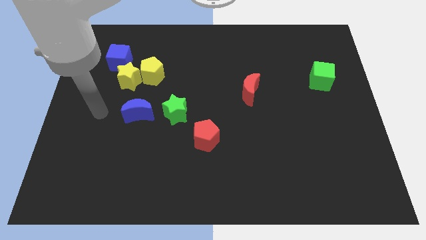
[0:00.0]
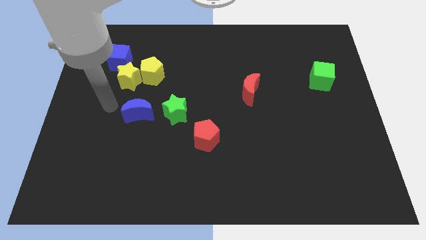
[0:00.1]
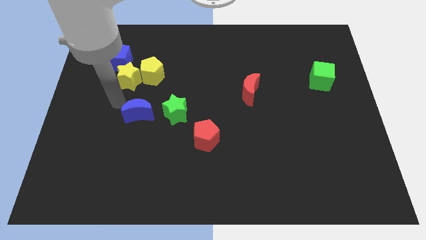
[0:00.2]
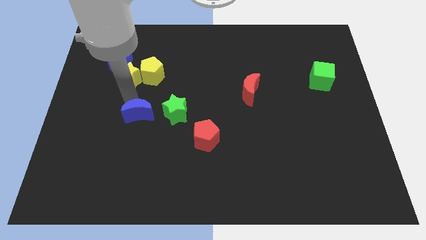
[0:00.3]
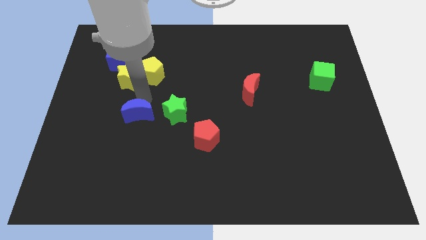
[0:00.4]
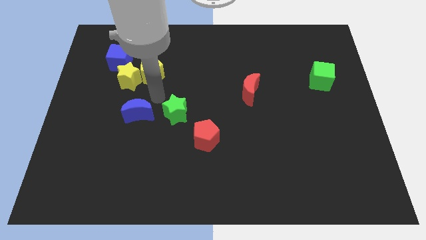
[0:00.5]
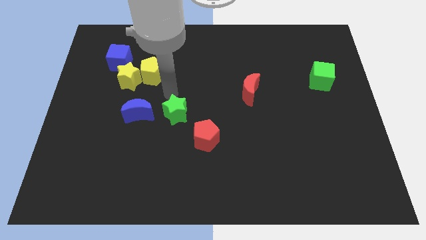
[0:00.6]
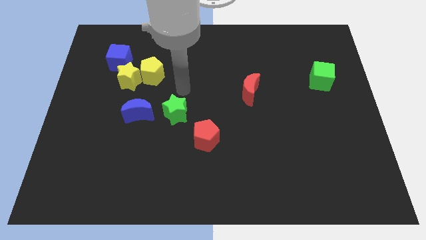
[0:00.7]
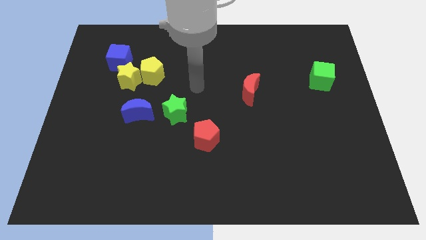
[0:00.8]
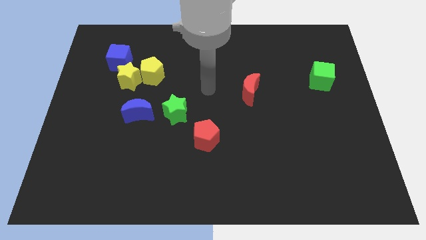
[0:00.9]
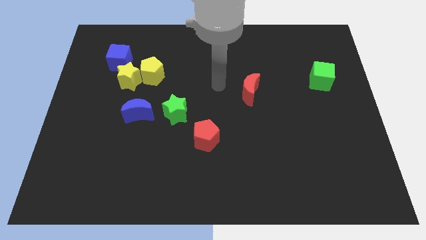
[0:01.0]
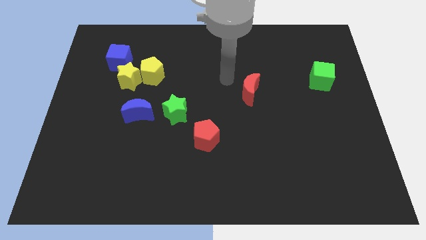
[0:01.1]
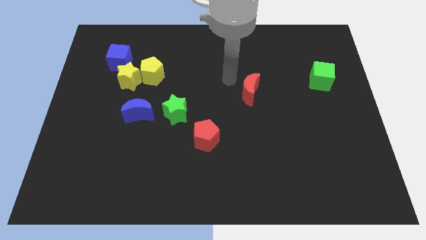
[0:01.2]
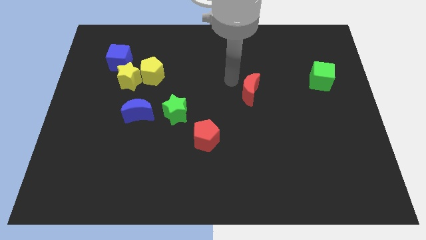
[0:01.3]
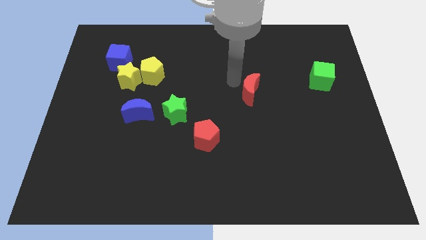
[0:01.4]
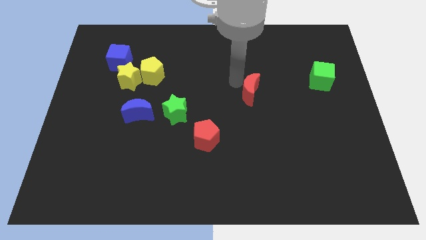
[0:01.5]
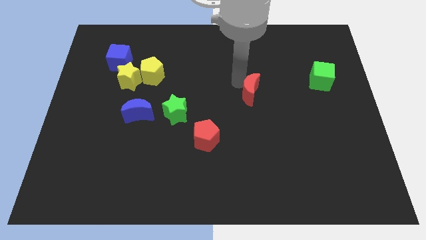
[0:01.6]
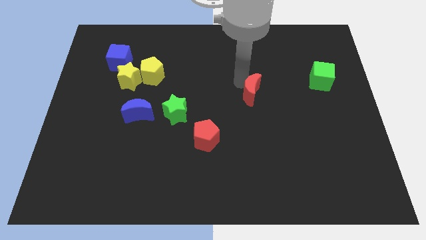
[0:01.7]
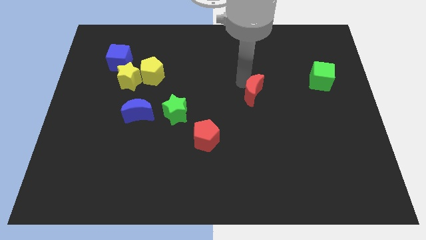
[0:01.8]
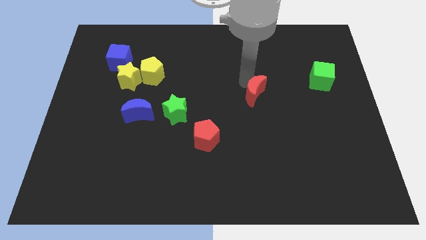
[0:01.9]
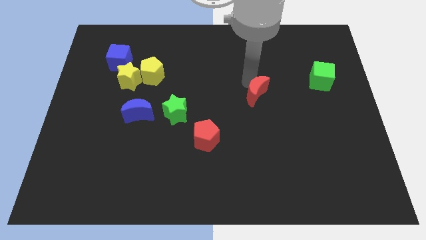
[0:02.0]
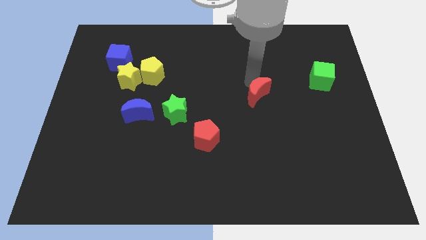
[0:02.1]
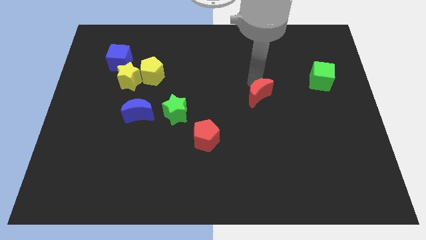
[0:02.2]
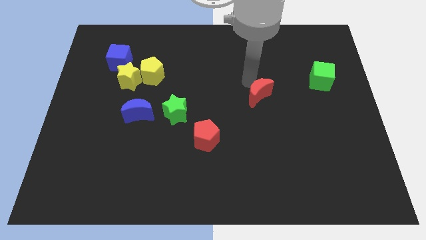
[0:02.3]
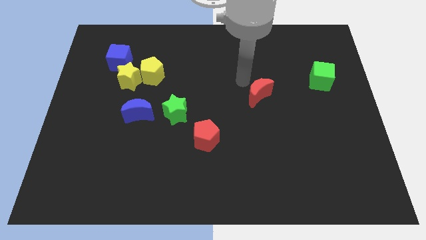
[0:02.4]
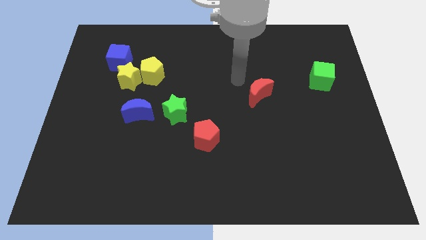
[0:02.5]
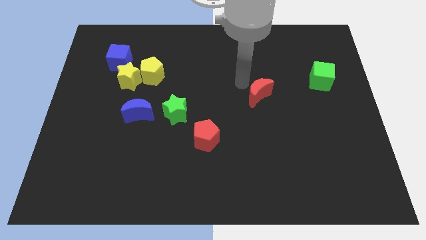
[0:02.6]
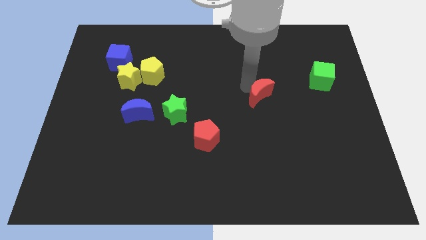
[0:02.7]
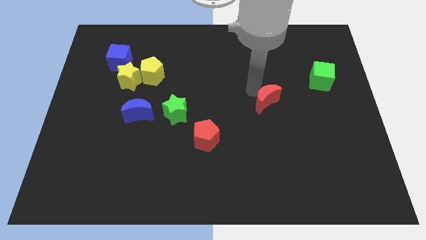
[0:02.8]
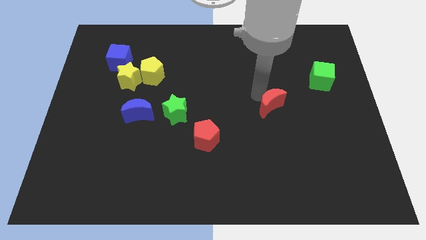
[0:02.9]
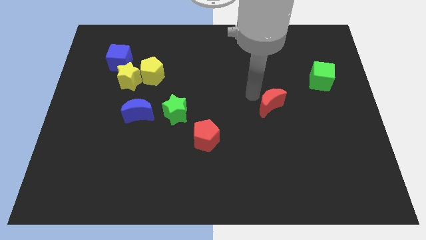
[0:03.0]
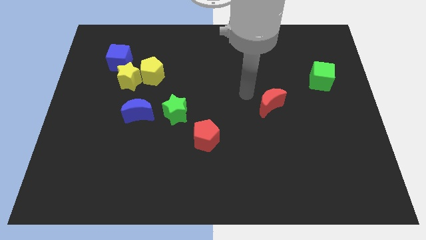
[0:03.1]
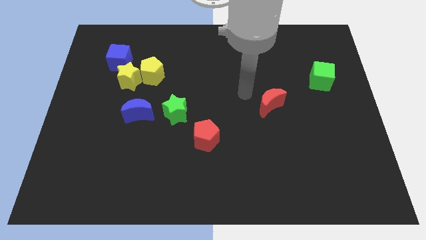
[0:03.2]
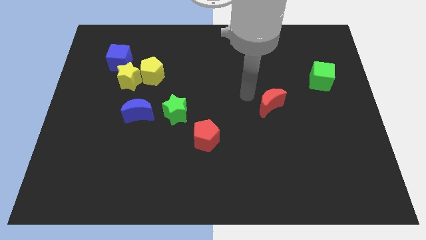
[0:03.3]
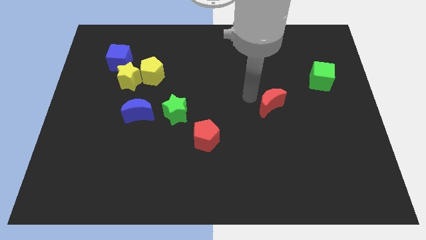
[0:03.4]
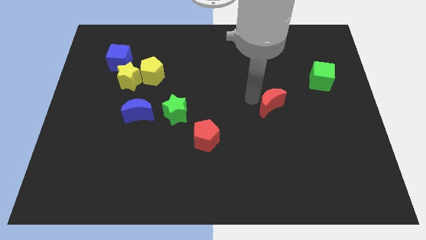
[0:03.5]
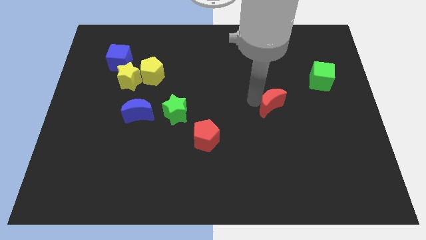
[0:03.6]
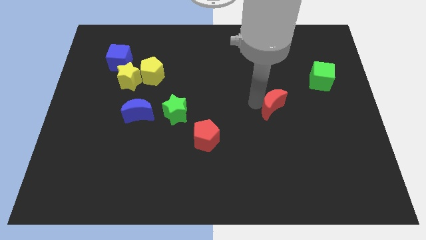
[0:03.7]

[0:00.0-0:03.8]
slightly slide the red moon down and then to the right

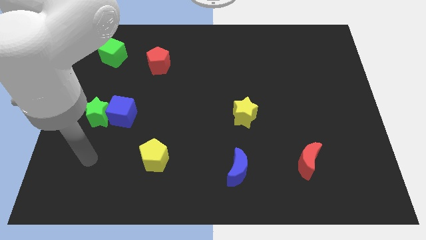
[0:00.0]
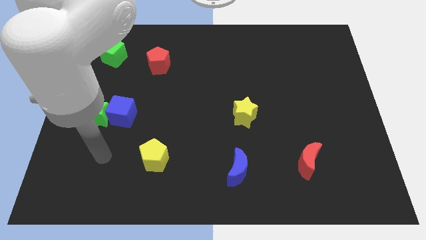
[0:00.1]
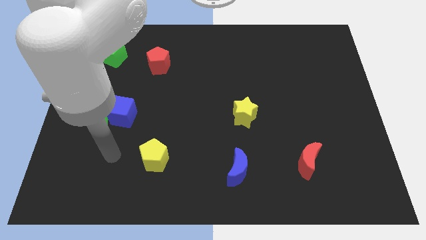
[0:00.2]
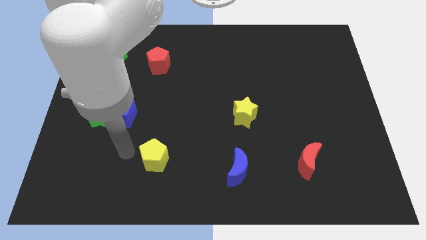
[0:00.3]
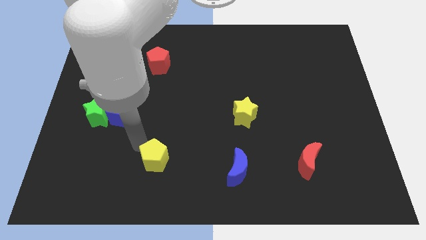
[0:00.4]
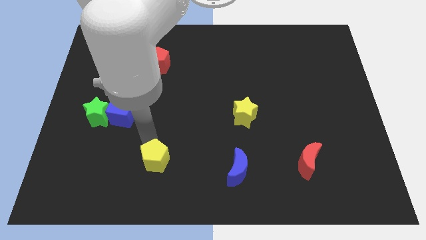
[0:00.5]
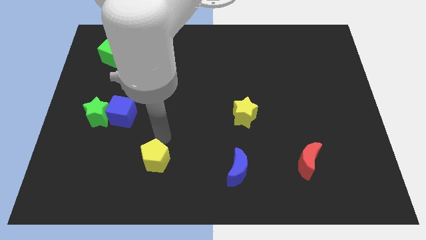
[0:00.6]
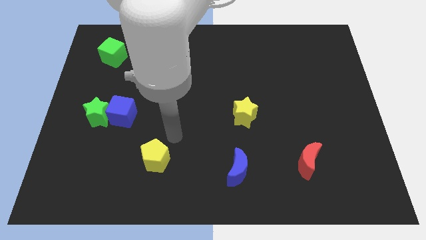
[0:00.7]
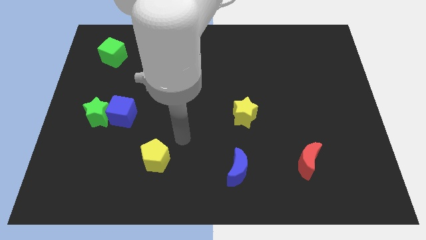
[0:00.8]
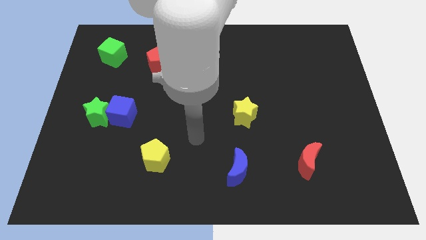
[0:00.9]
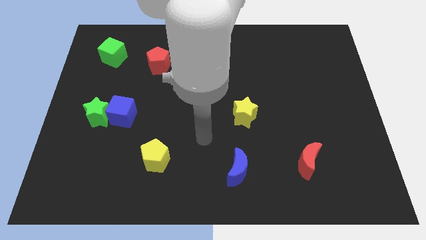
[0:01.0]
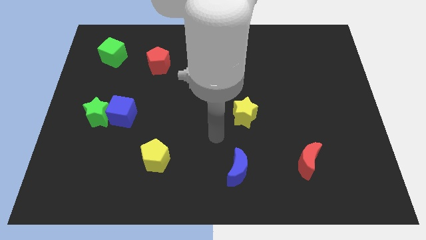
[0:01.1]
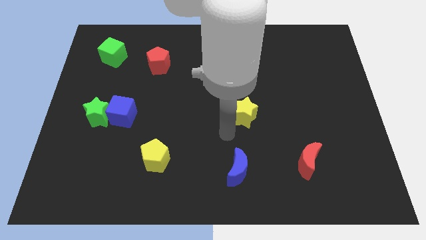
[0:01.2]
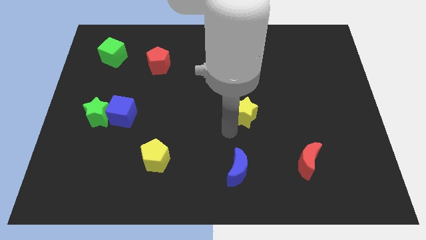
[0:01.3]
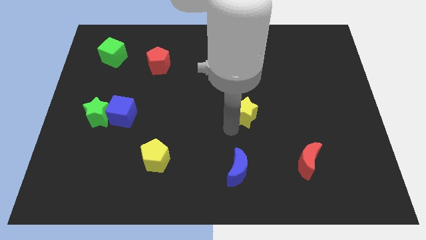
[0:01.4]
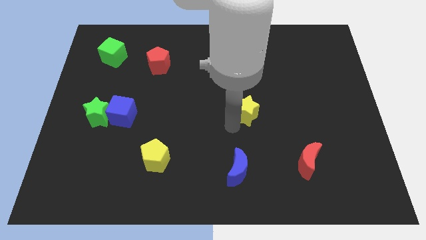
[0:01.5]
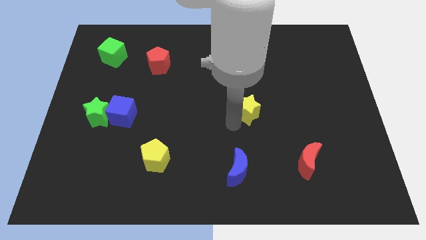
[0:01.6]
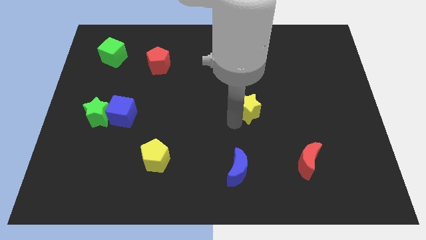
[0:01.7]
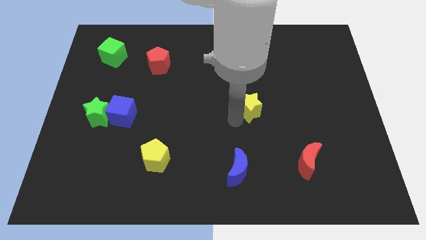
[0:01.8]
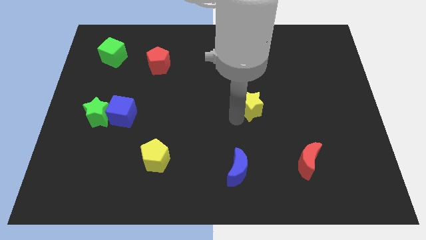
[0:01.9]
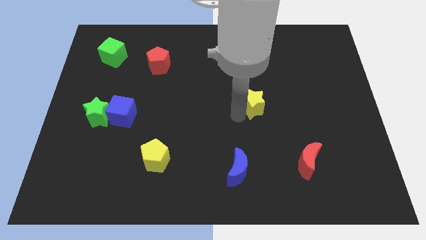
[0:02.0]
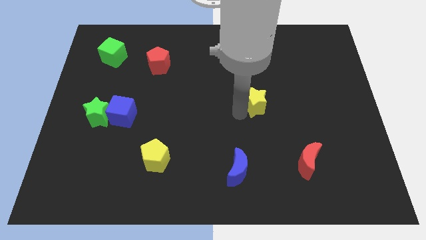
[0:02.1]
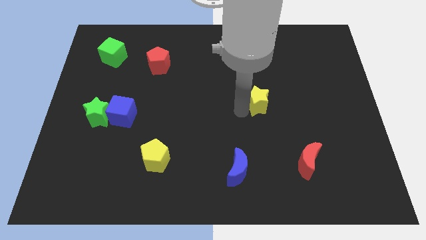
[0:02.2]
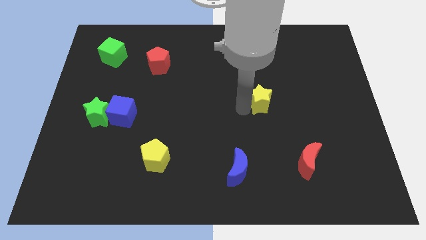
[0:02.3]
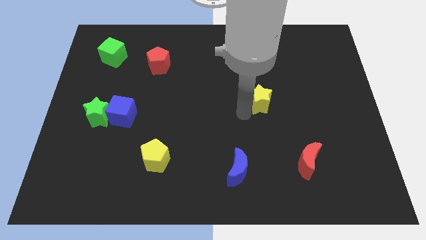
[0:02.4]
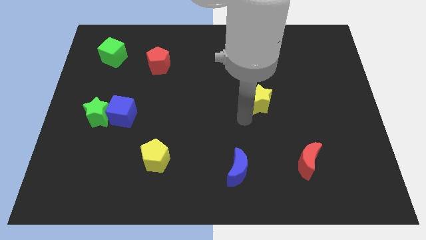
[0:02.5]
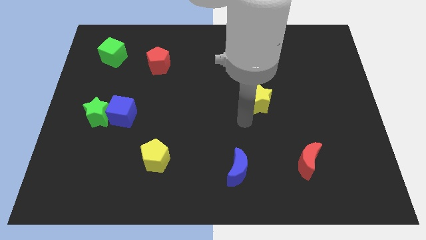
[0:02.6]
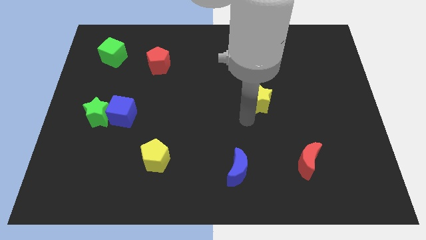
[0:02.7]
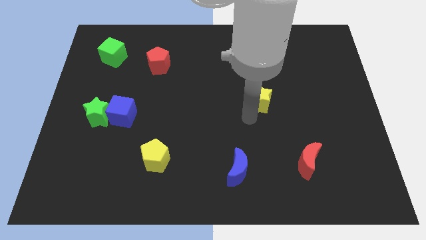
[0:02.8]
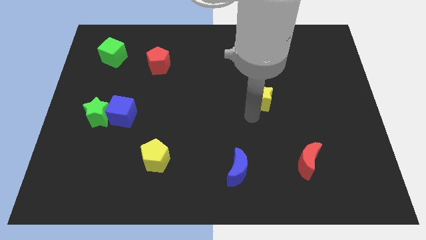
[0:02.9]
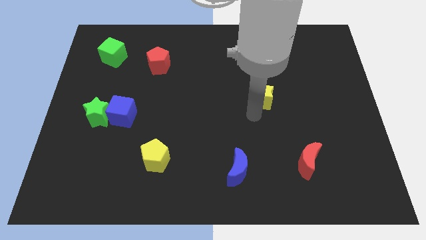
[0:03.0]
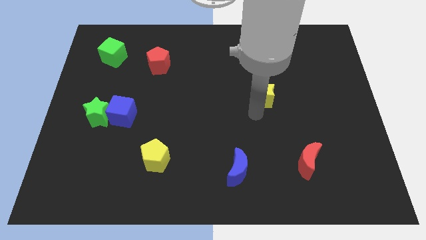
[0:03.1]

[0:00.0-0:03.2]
slide the yellow star slightly up and right diagonally

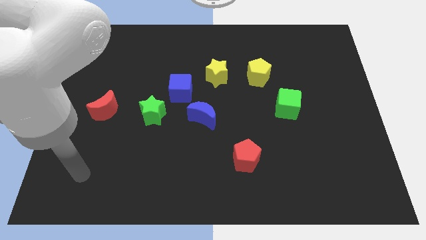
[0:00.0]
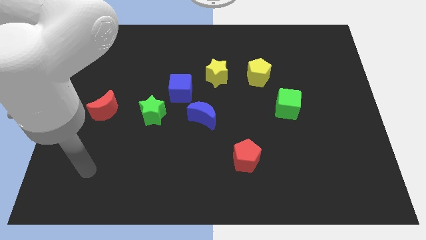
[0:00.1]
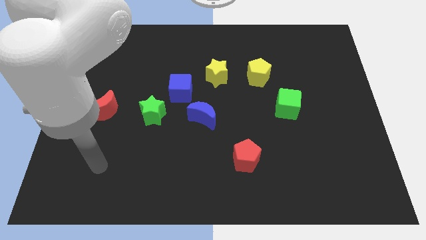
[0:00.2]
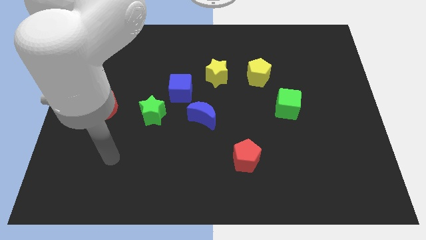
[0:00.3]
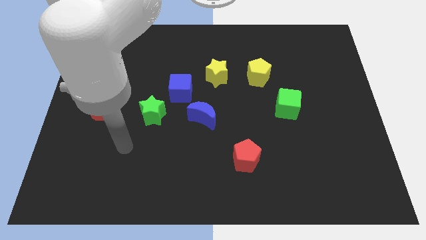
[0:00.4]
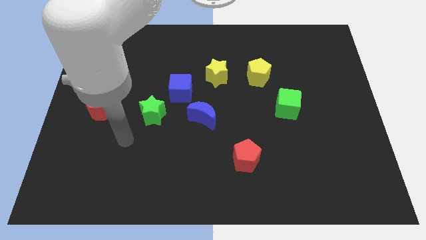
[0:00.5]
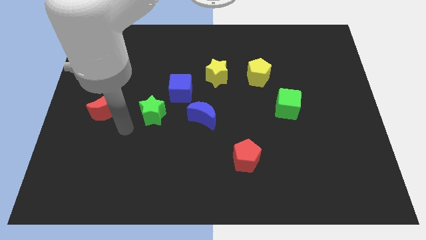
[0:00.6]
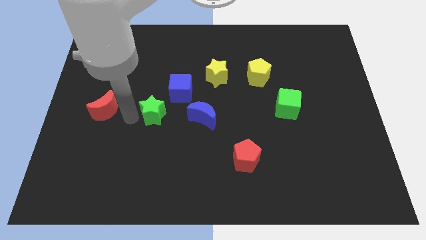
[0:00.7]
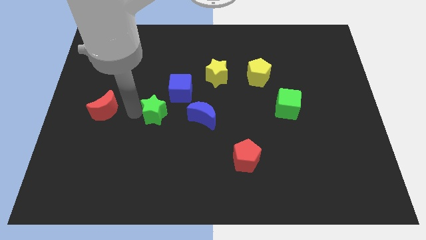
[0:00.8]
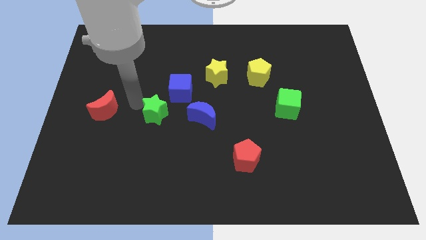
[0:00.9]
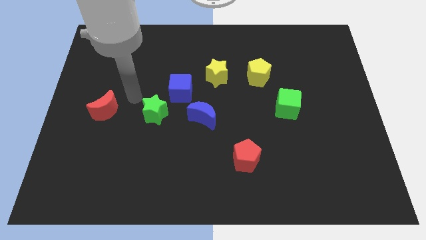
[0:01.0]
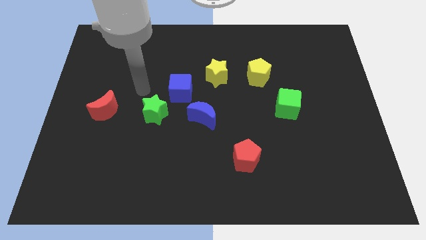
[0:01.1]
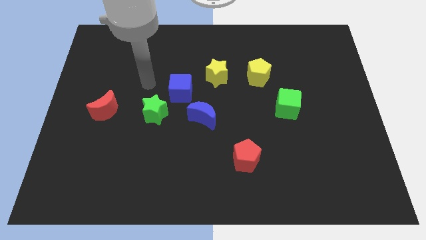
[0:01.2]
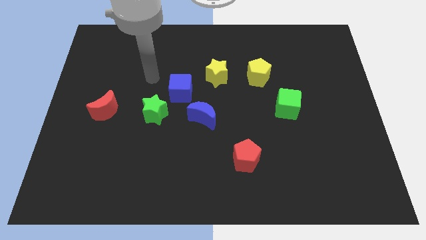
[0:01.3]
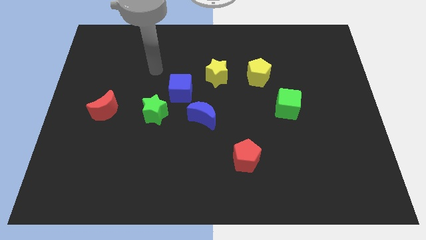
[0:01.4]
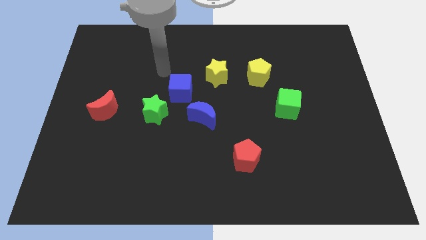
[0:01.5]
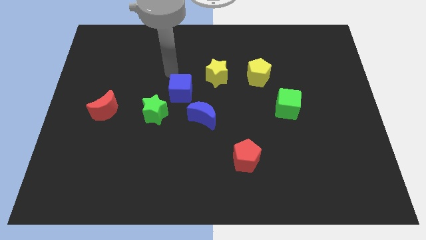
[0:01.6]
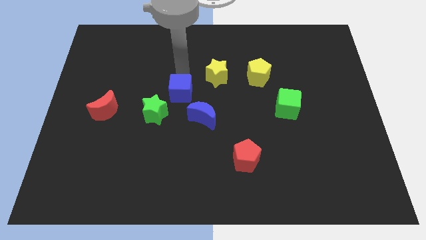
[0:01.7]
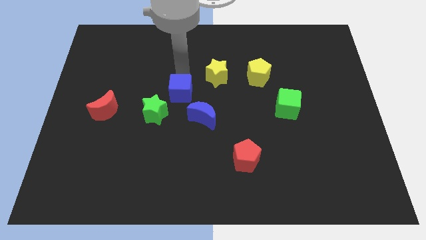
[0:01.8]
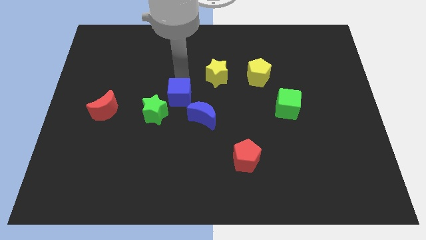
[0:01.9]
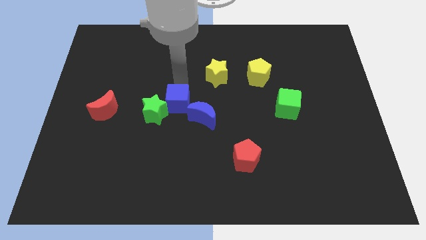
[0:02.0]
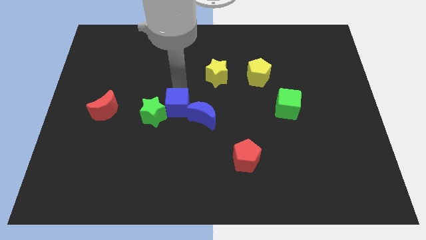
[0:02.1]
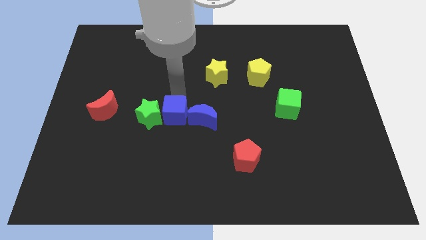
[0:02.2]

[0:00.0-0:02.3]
slightly move the blue cube down
